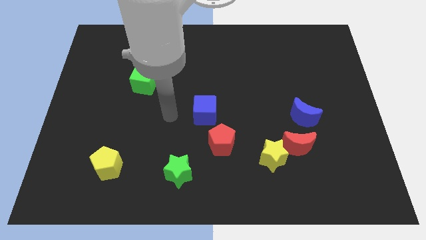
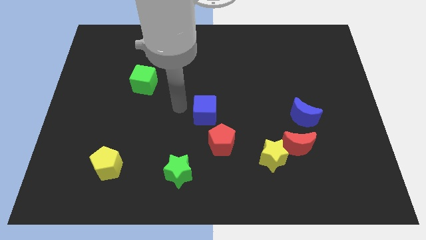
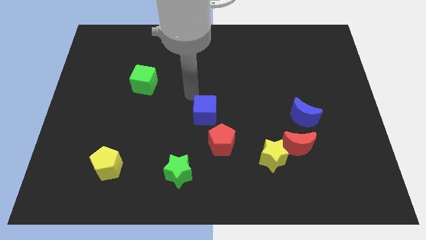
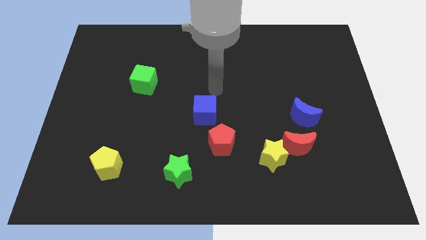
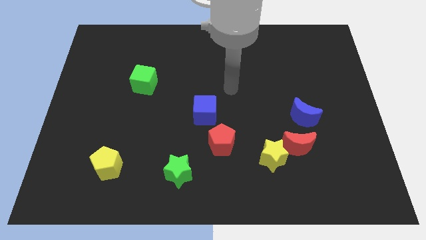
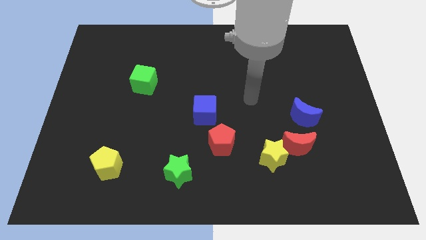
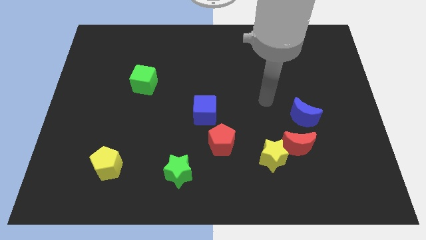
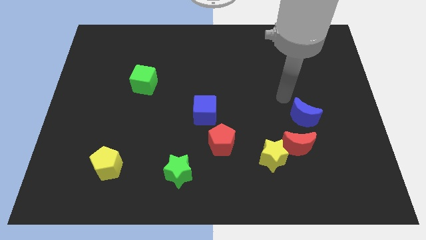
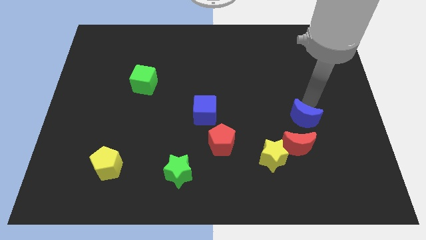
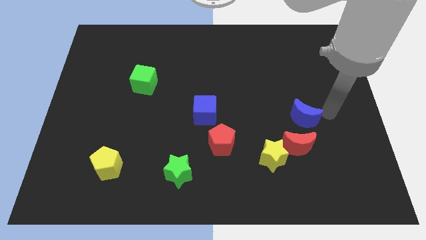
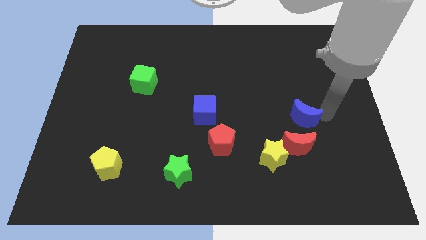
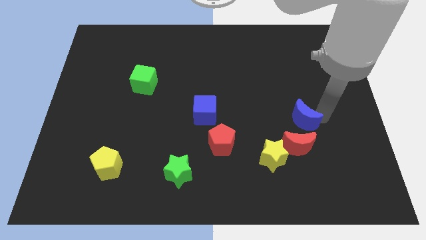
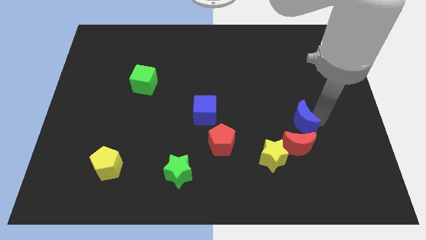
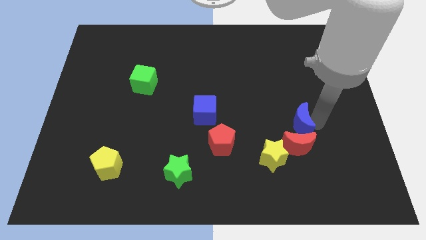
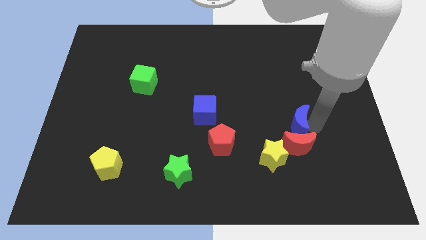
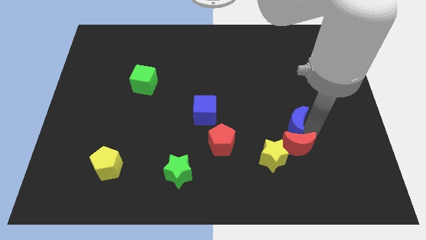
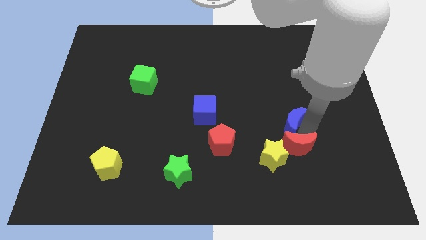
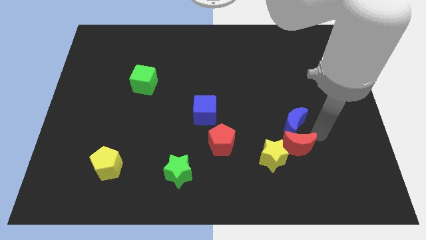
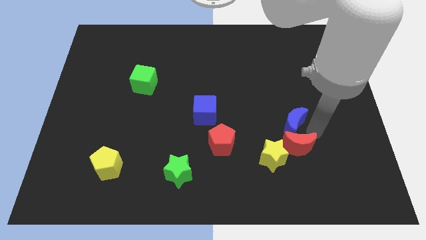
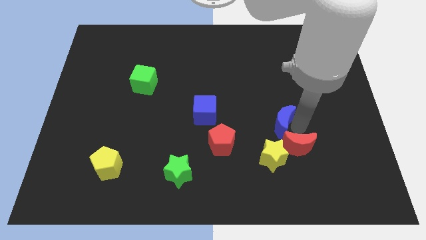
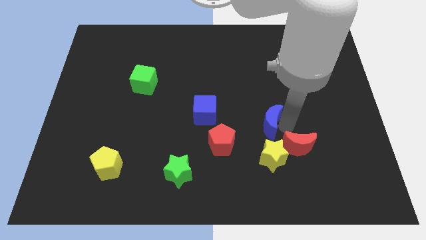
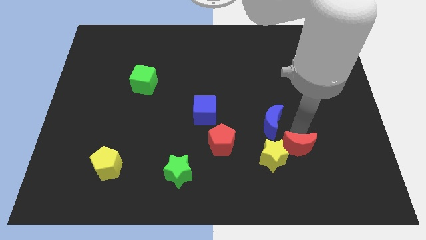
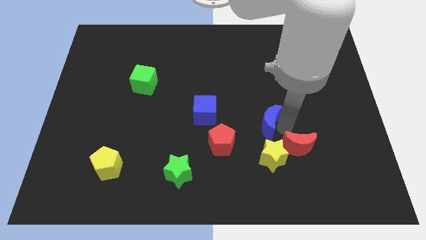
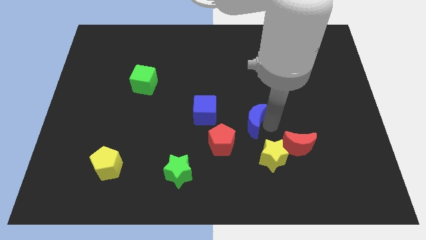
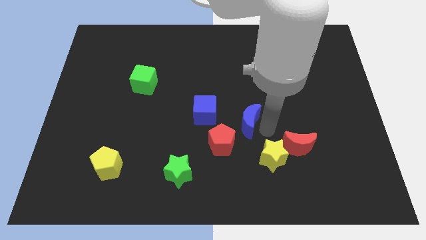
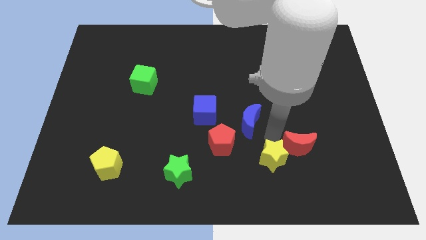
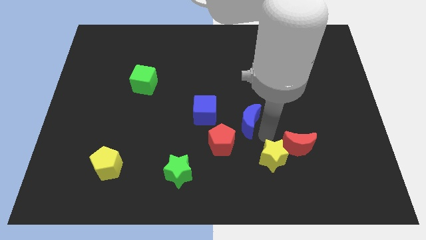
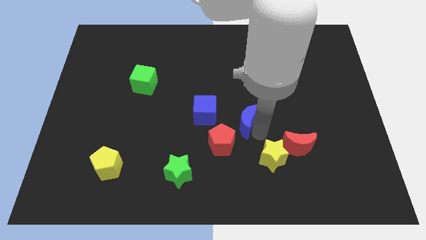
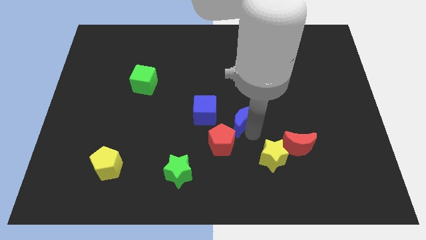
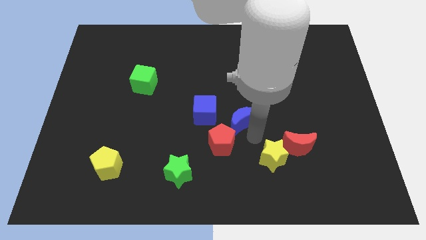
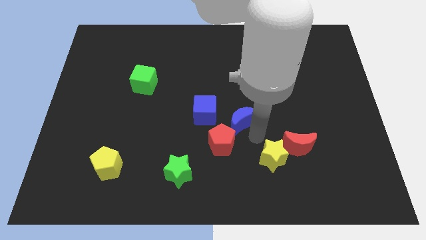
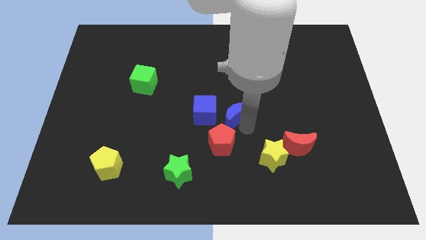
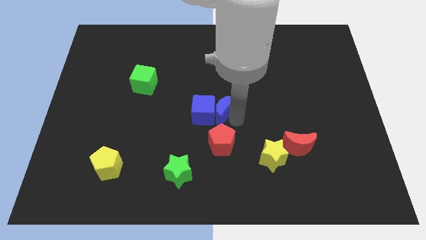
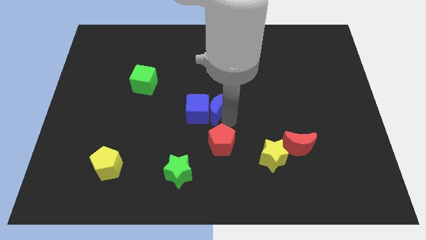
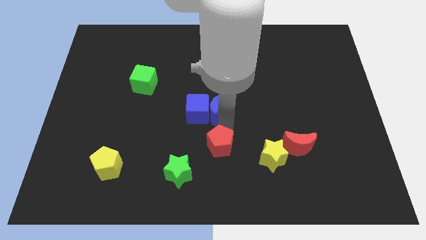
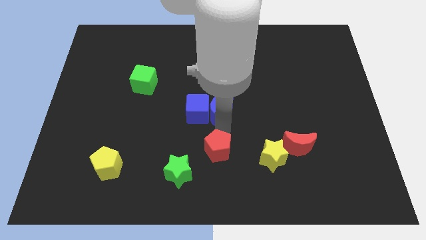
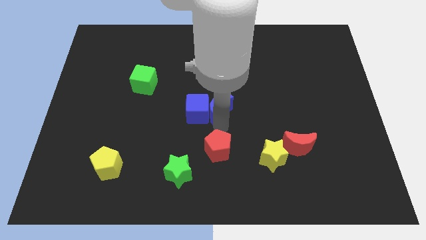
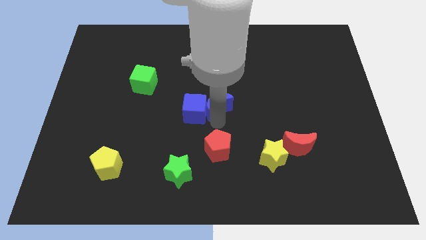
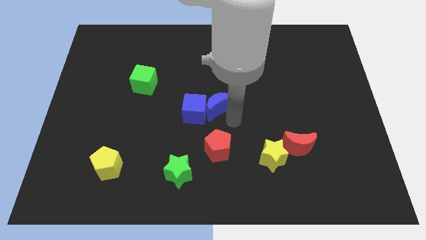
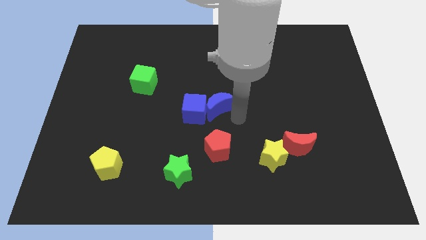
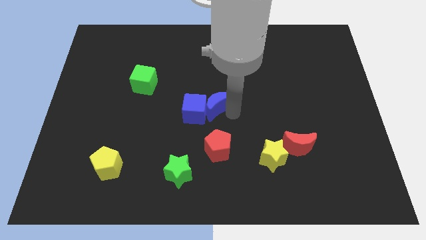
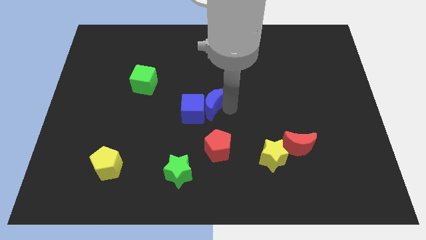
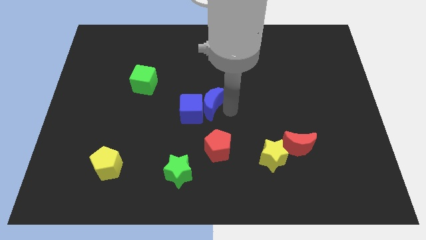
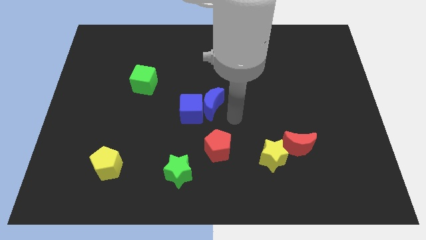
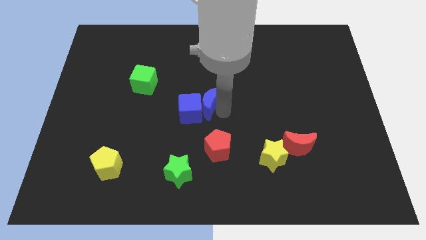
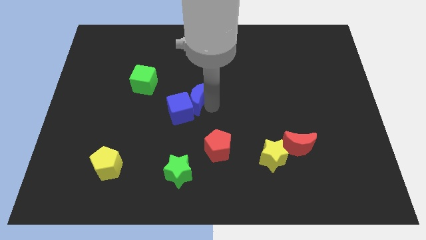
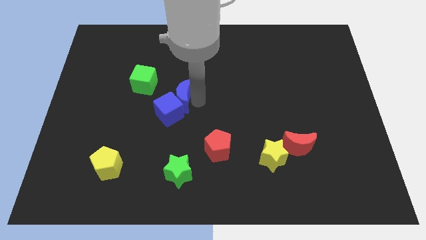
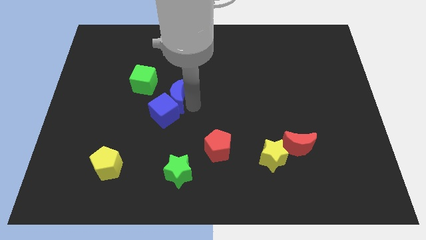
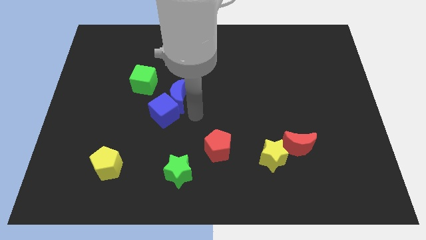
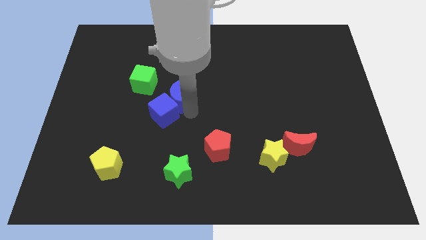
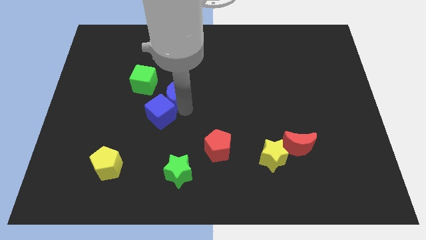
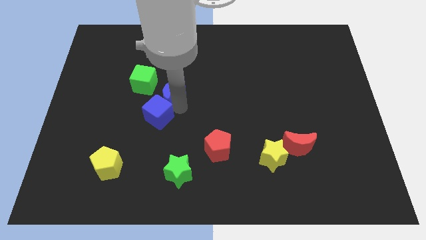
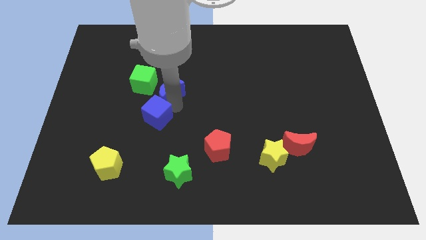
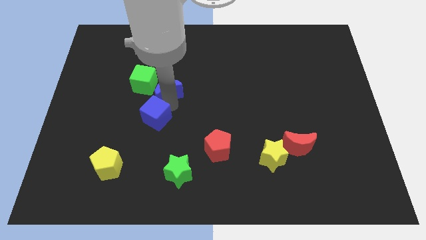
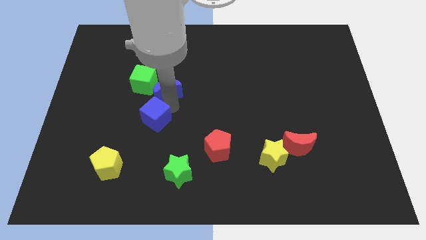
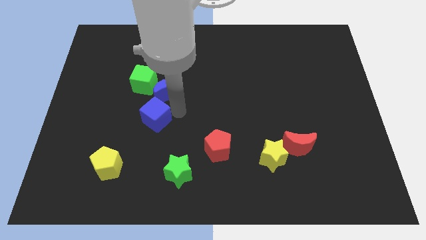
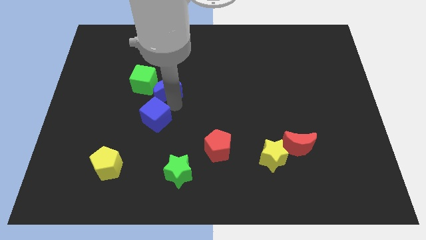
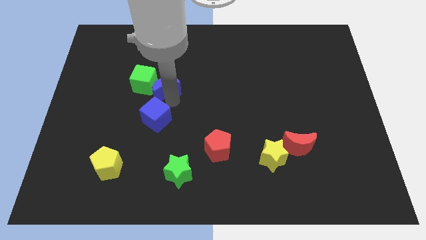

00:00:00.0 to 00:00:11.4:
put the blue moon towards the green cube

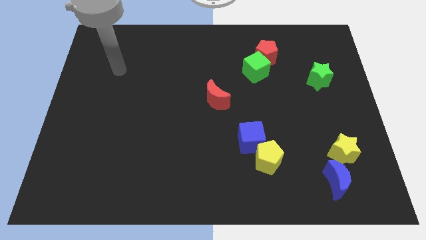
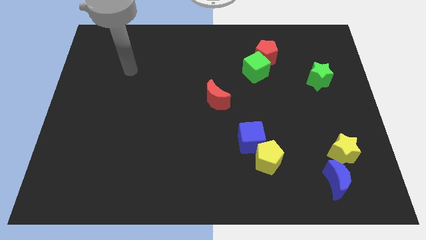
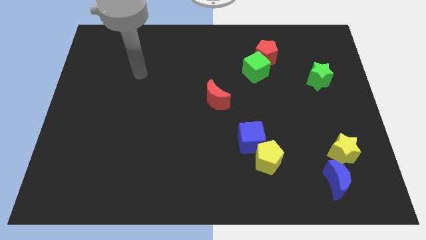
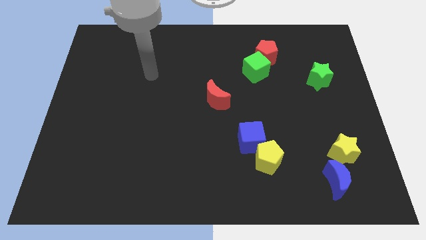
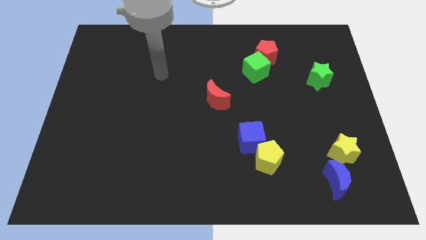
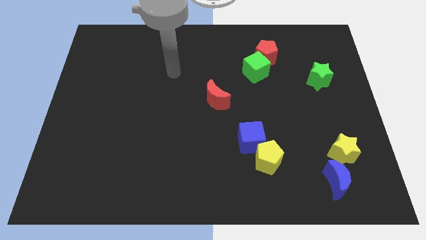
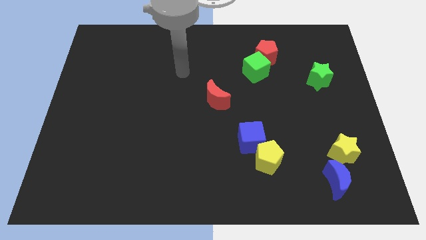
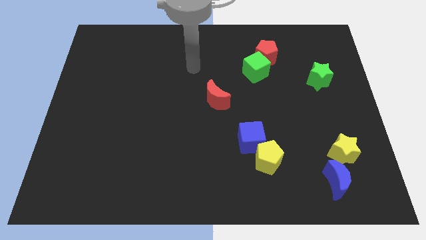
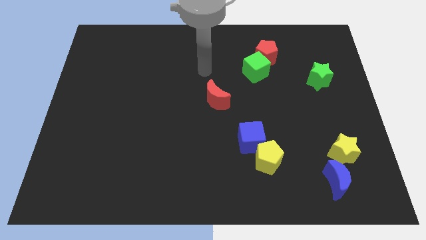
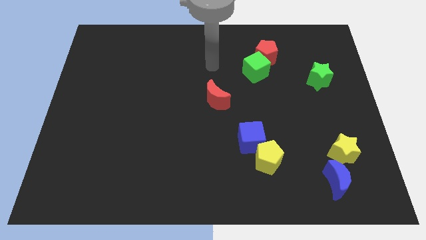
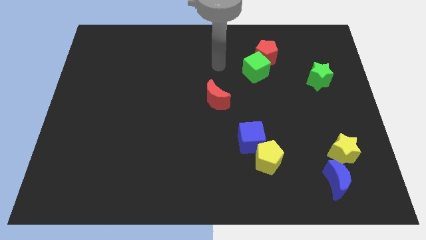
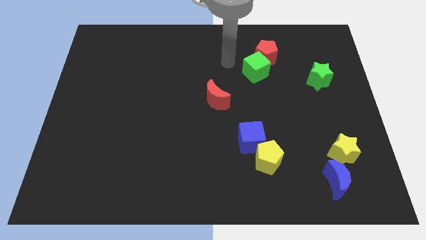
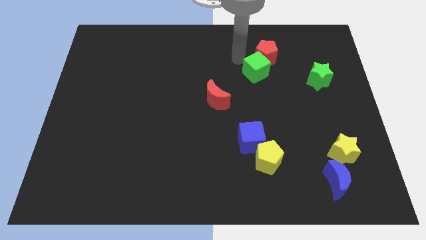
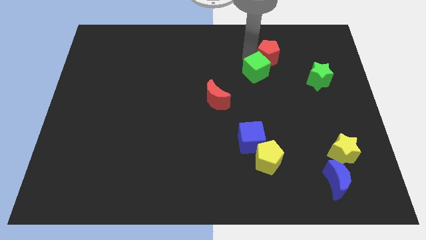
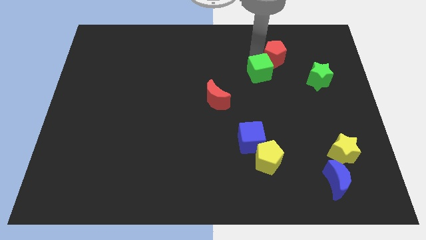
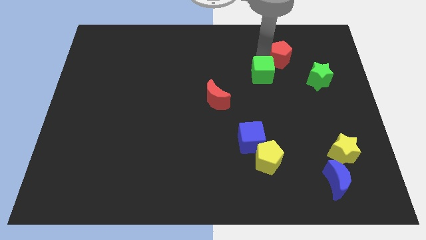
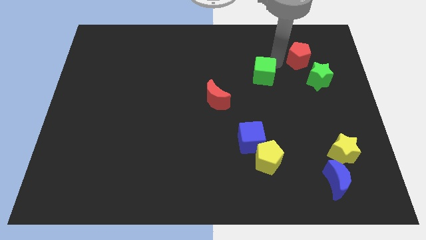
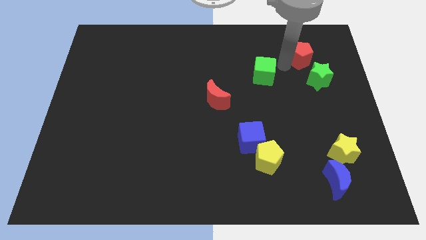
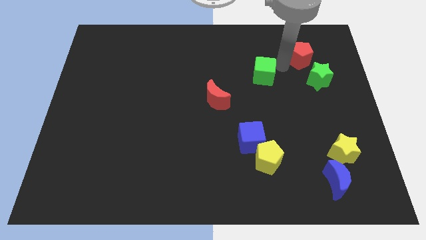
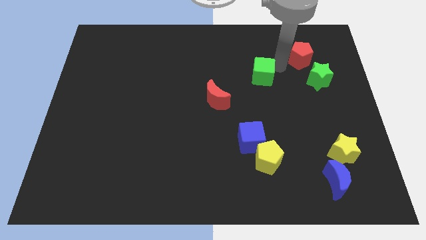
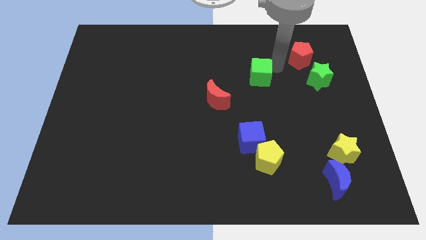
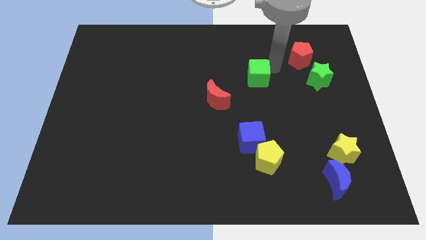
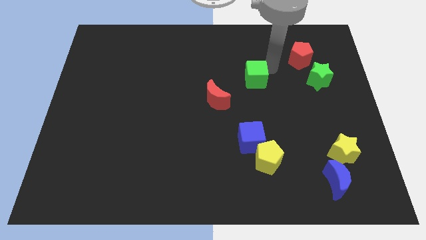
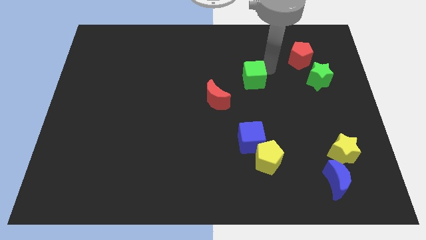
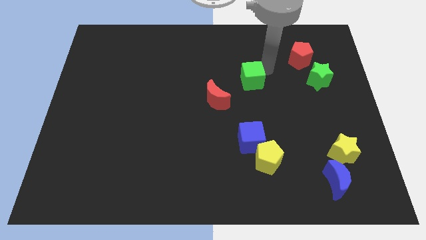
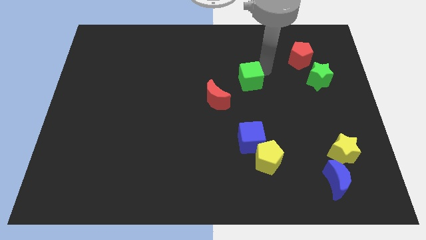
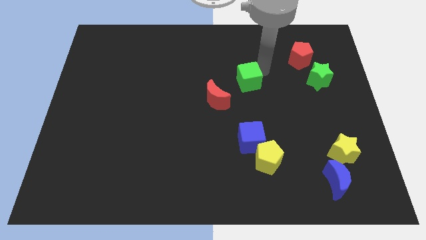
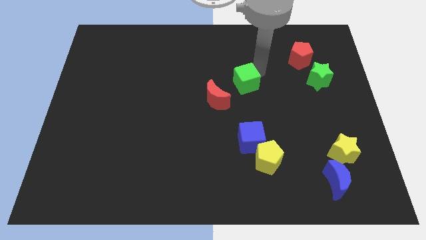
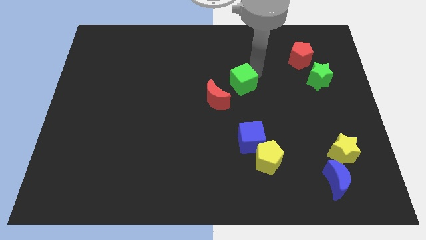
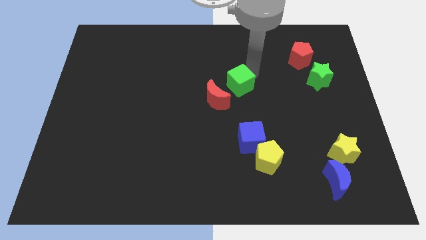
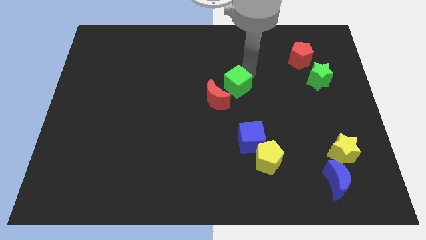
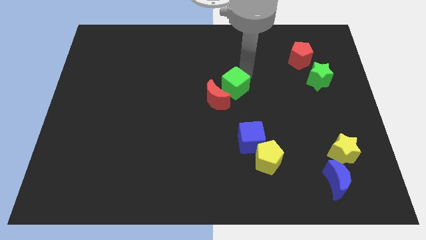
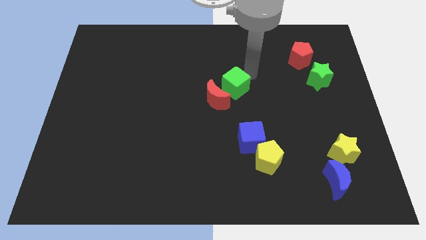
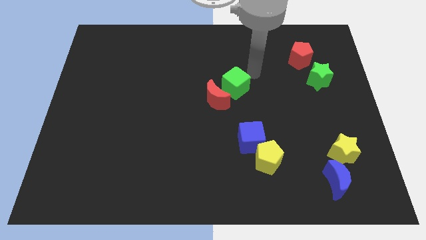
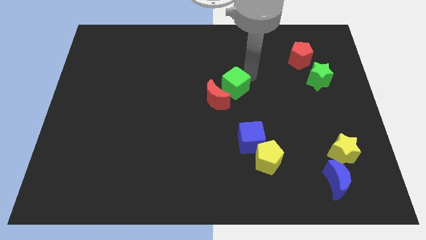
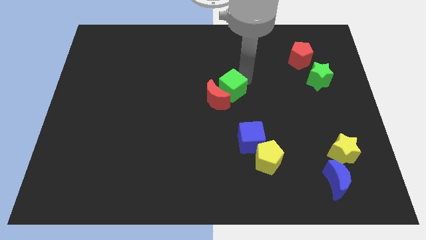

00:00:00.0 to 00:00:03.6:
move the green cube to the red moon
